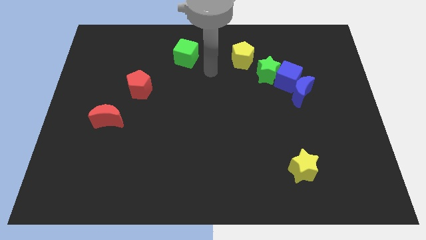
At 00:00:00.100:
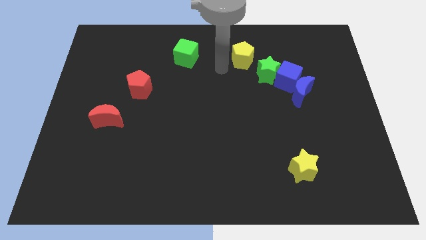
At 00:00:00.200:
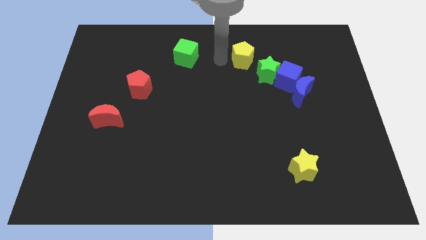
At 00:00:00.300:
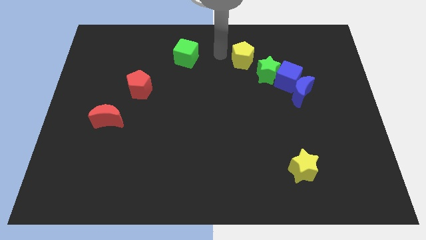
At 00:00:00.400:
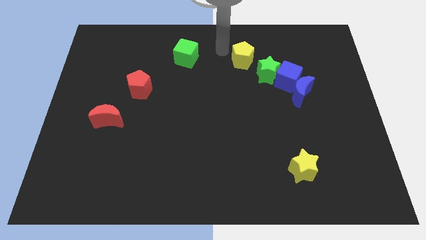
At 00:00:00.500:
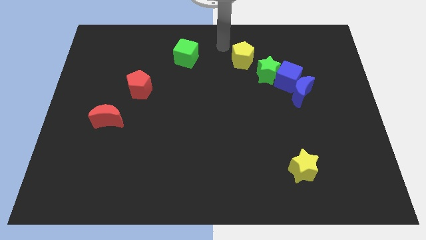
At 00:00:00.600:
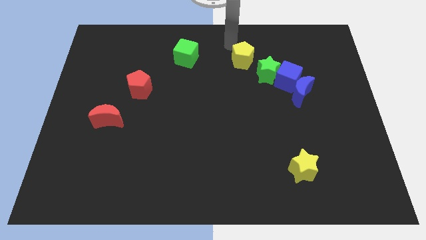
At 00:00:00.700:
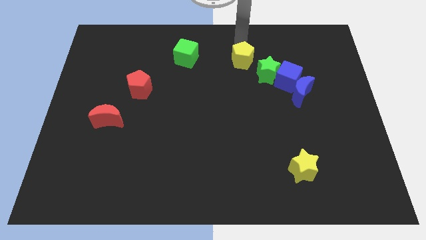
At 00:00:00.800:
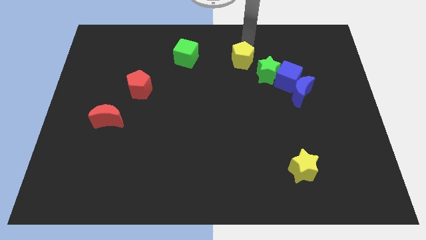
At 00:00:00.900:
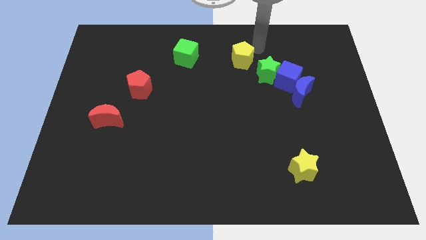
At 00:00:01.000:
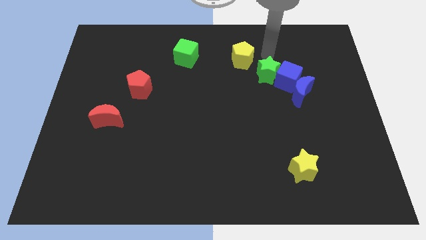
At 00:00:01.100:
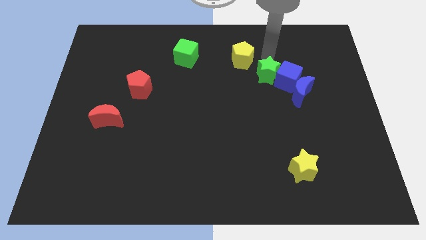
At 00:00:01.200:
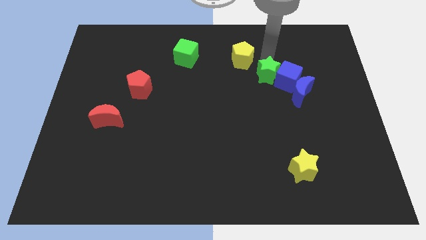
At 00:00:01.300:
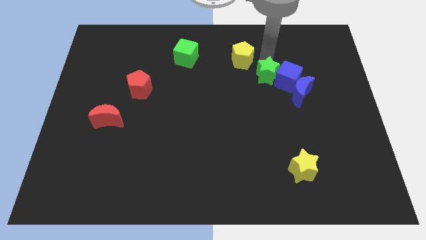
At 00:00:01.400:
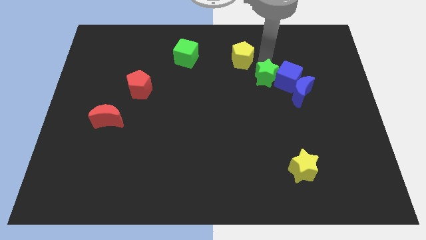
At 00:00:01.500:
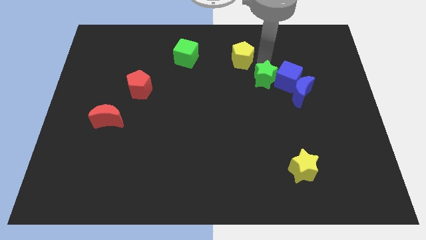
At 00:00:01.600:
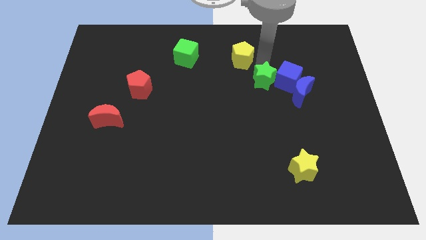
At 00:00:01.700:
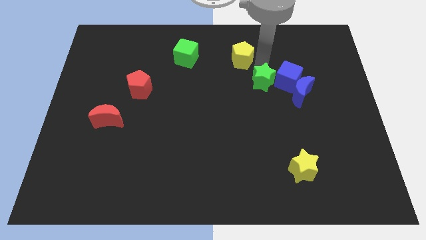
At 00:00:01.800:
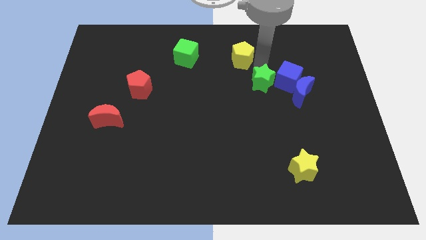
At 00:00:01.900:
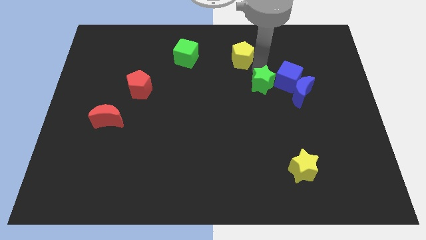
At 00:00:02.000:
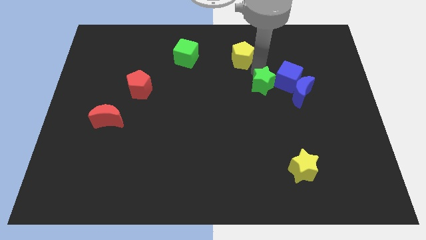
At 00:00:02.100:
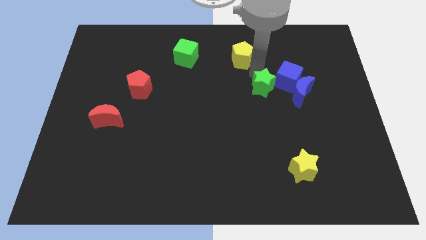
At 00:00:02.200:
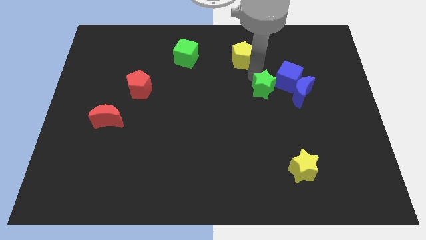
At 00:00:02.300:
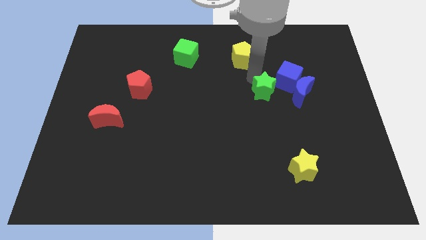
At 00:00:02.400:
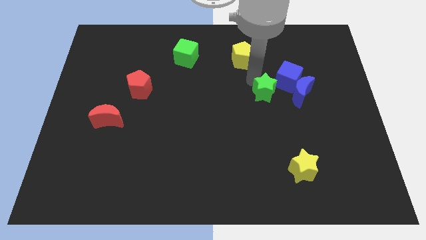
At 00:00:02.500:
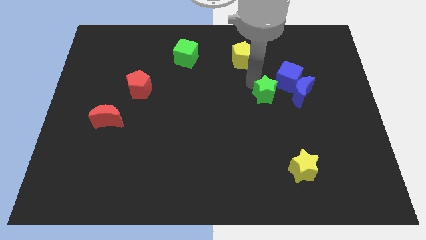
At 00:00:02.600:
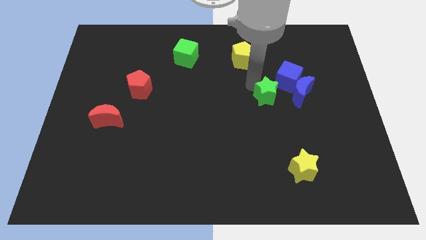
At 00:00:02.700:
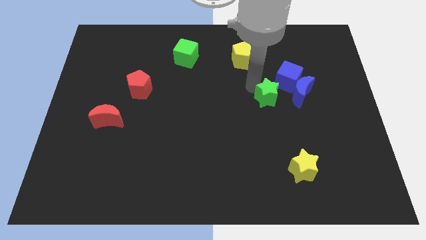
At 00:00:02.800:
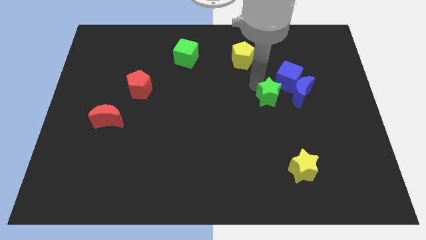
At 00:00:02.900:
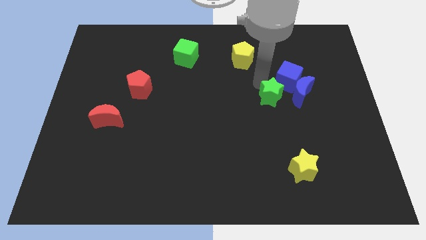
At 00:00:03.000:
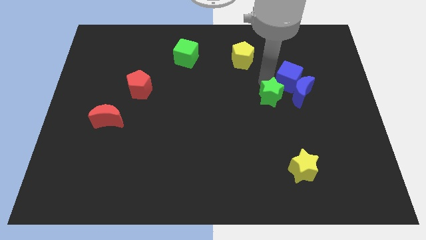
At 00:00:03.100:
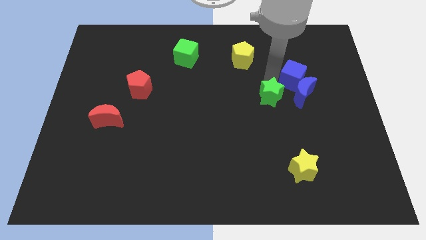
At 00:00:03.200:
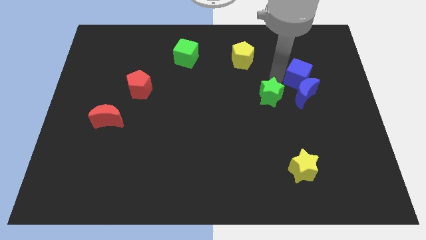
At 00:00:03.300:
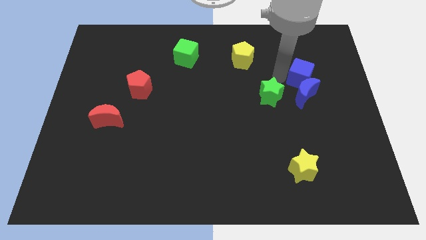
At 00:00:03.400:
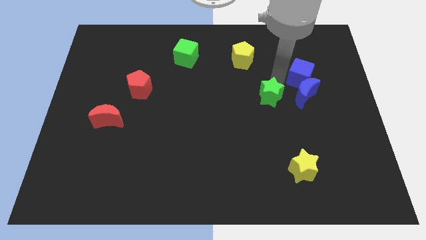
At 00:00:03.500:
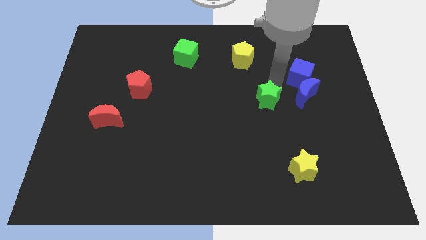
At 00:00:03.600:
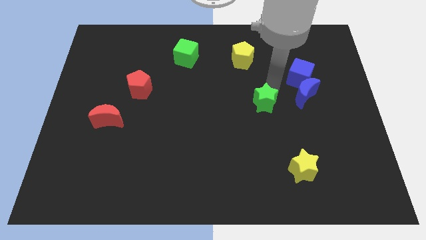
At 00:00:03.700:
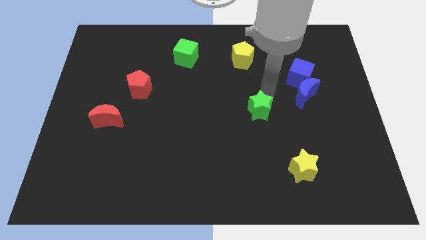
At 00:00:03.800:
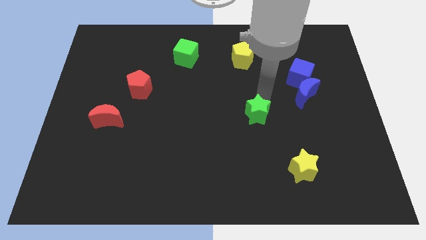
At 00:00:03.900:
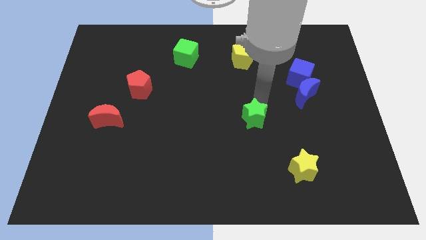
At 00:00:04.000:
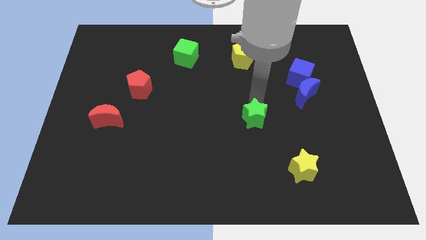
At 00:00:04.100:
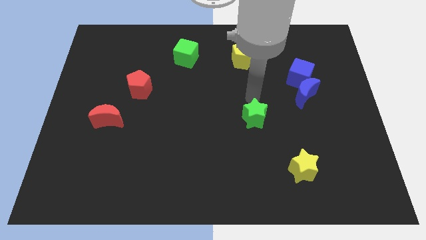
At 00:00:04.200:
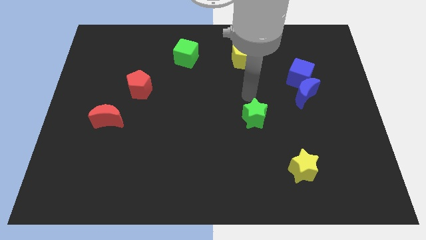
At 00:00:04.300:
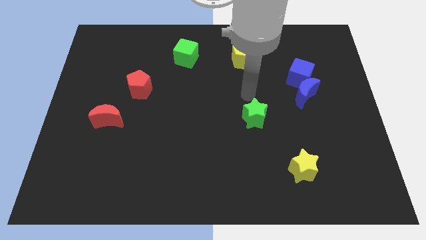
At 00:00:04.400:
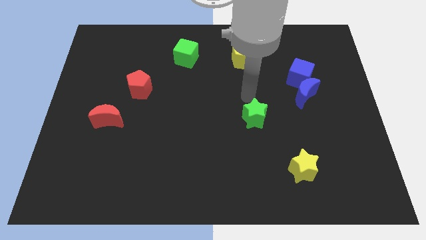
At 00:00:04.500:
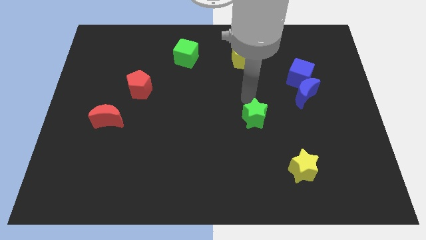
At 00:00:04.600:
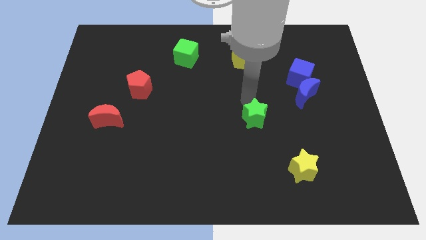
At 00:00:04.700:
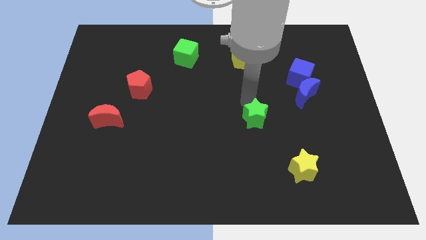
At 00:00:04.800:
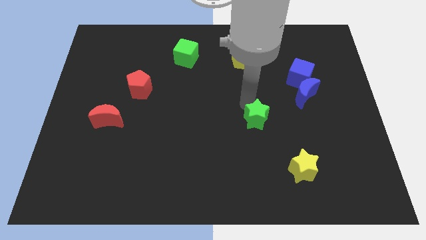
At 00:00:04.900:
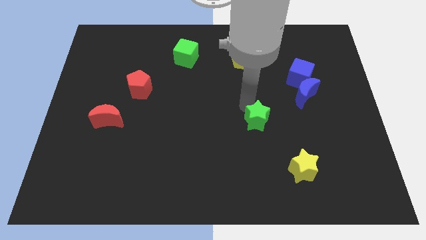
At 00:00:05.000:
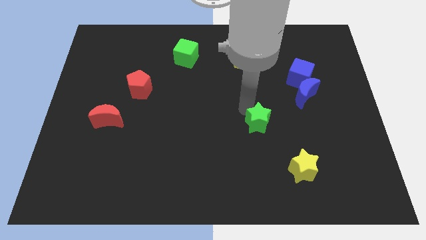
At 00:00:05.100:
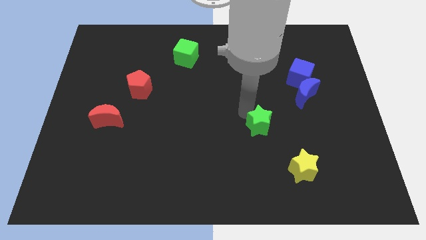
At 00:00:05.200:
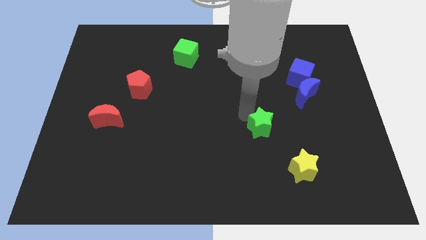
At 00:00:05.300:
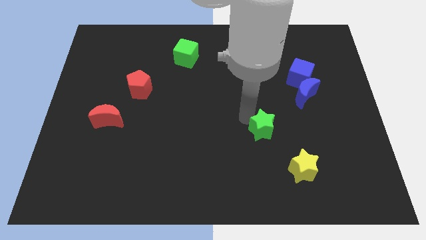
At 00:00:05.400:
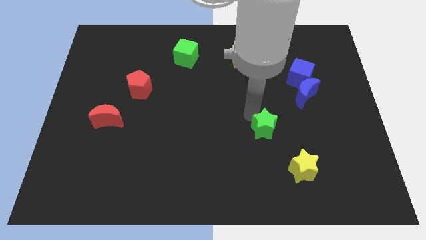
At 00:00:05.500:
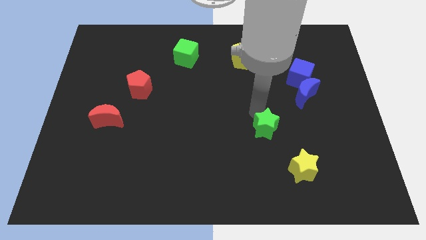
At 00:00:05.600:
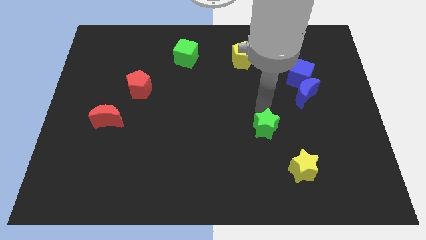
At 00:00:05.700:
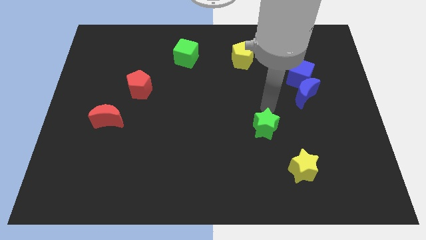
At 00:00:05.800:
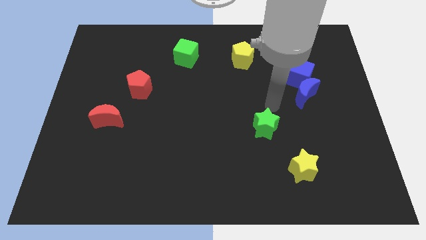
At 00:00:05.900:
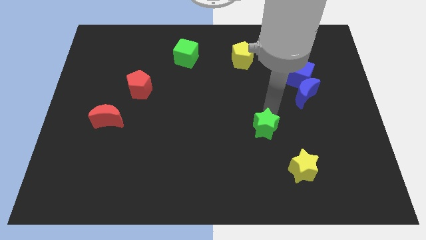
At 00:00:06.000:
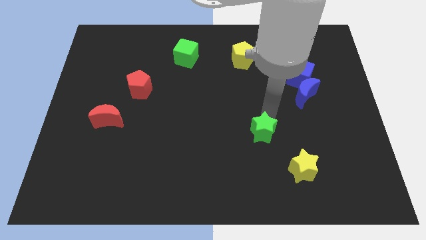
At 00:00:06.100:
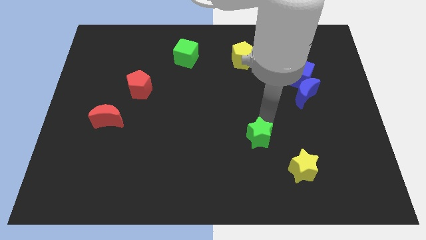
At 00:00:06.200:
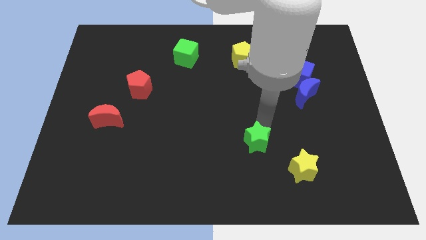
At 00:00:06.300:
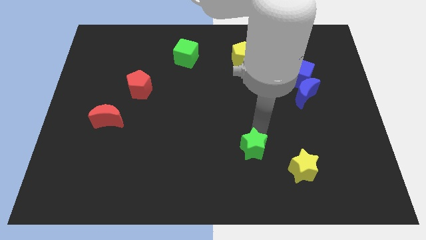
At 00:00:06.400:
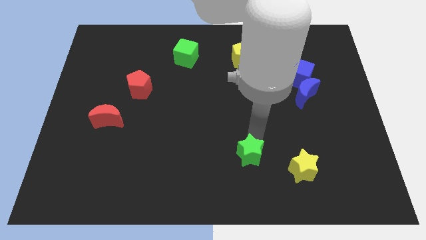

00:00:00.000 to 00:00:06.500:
put the green star left of the yellow star
